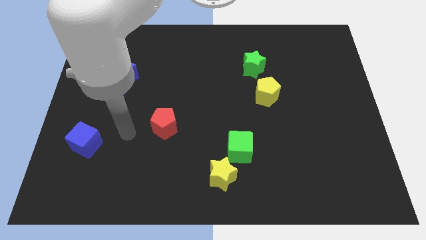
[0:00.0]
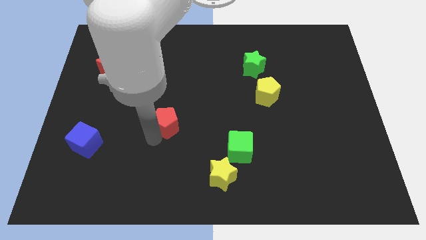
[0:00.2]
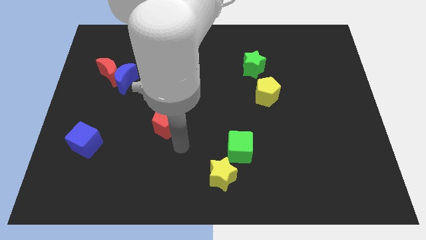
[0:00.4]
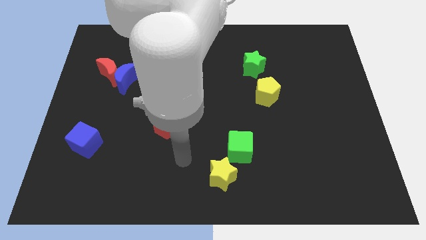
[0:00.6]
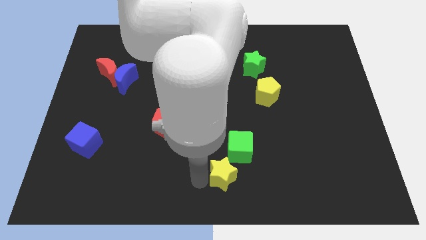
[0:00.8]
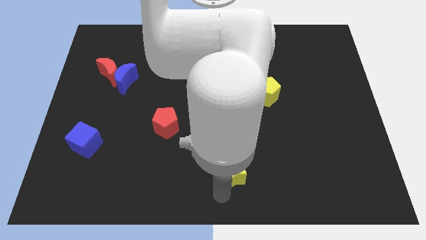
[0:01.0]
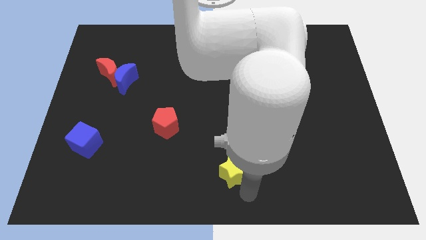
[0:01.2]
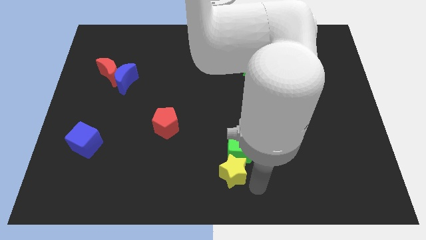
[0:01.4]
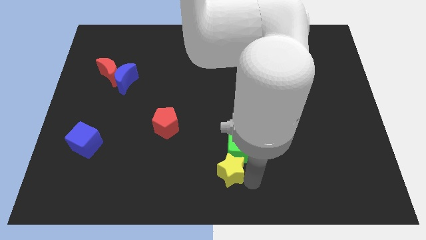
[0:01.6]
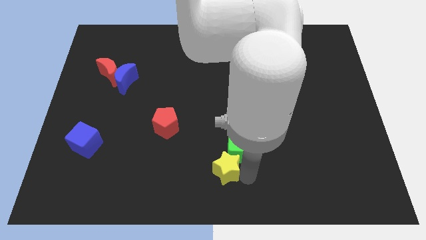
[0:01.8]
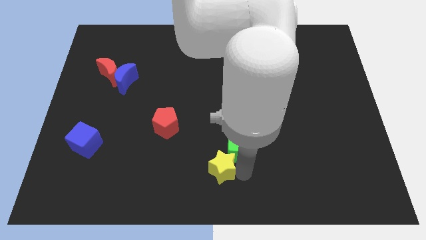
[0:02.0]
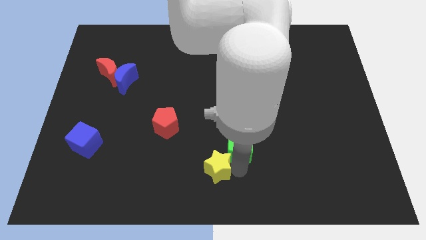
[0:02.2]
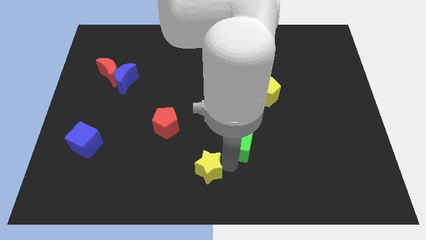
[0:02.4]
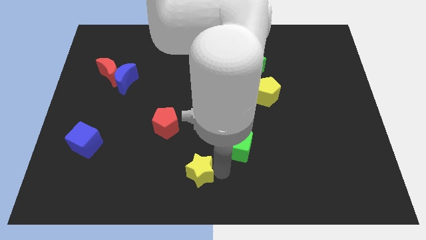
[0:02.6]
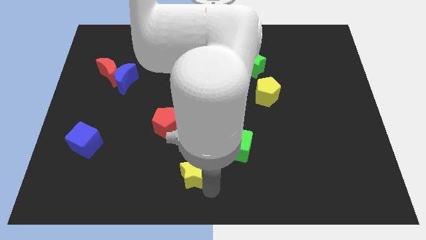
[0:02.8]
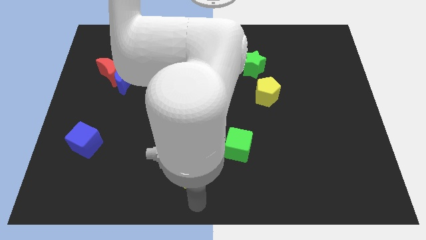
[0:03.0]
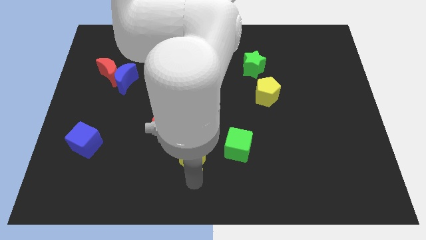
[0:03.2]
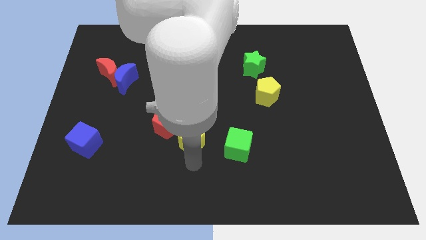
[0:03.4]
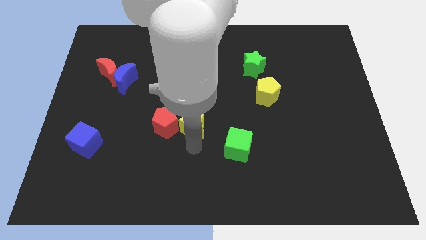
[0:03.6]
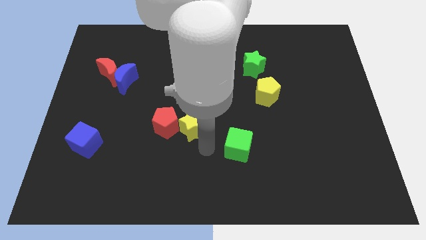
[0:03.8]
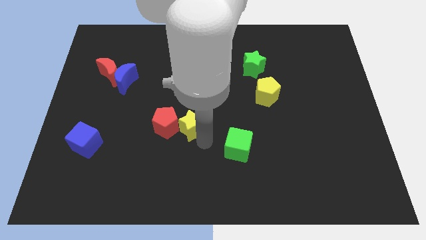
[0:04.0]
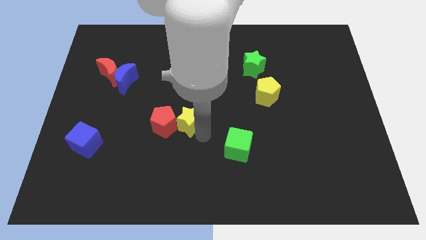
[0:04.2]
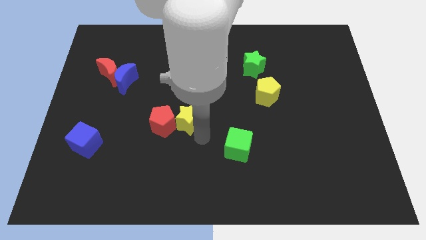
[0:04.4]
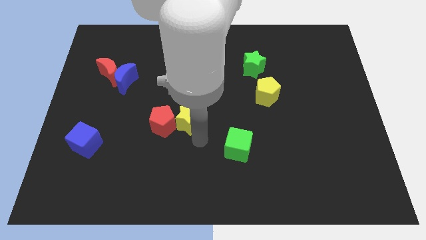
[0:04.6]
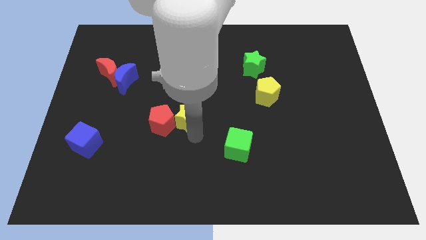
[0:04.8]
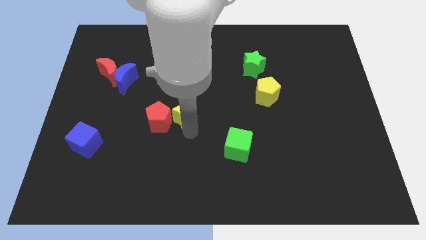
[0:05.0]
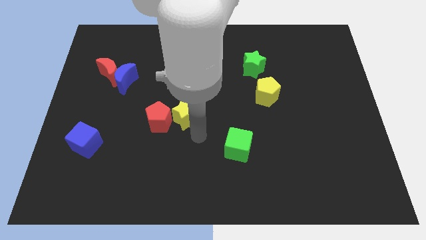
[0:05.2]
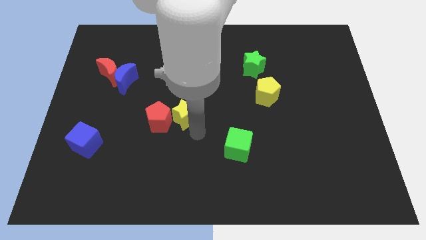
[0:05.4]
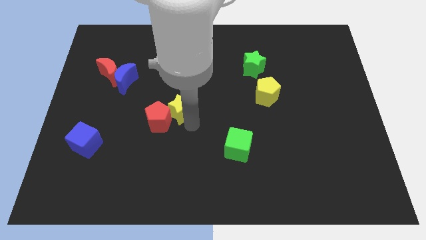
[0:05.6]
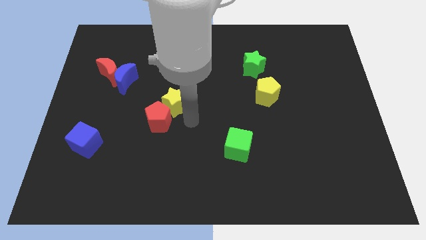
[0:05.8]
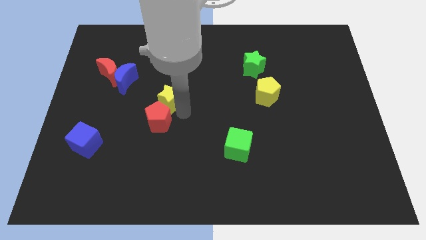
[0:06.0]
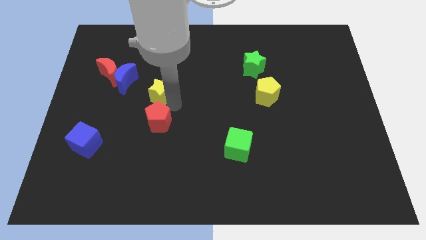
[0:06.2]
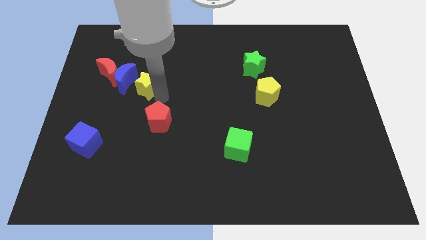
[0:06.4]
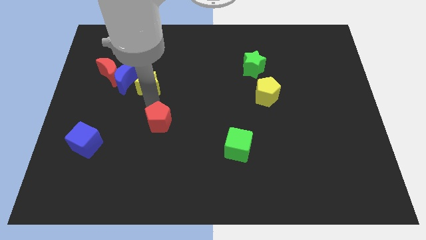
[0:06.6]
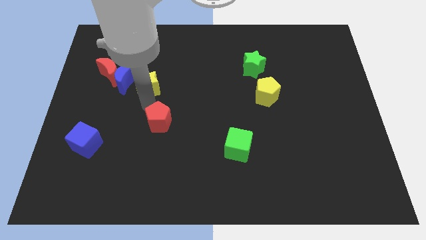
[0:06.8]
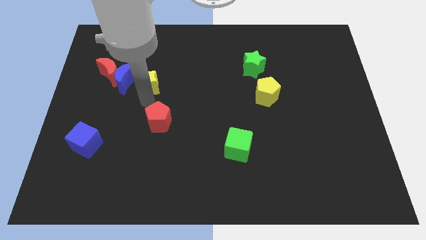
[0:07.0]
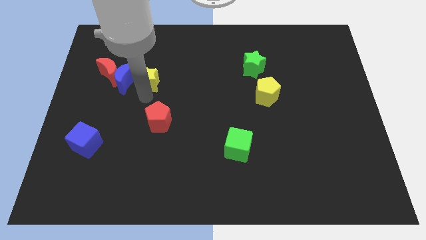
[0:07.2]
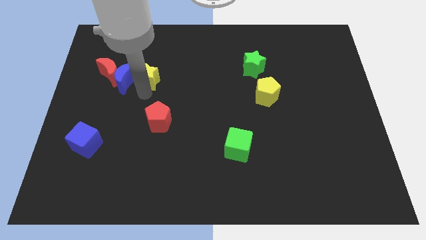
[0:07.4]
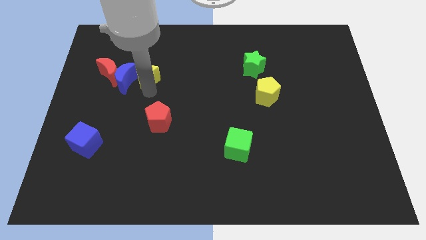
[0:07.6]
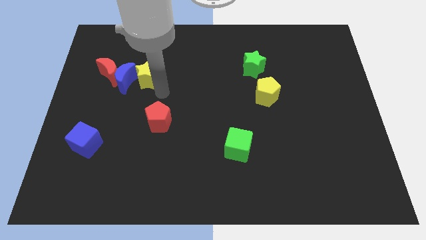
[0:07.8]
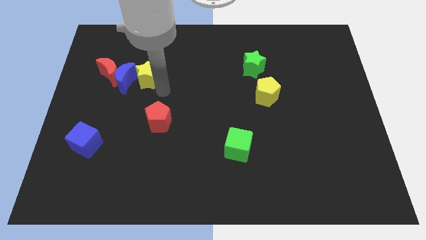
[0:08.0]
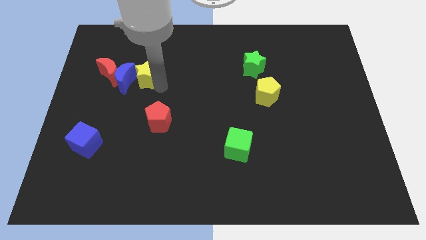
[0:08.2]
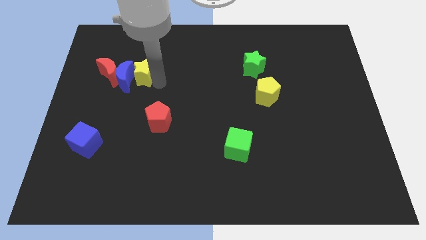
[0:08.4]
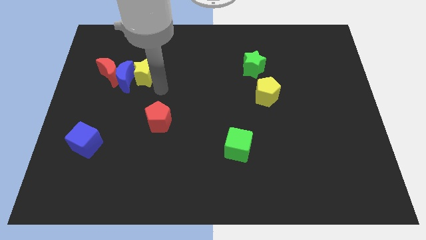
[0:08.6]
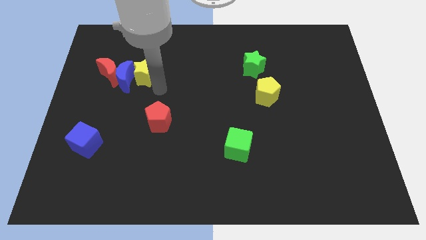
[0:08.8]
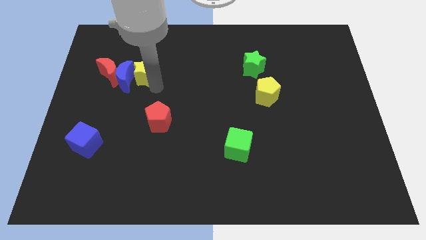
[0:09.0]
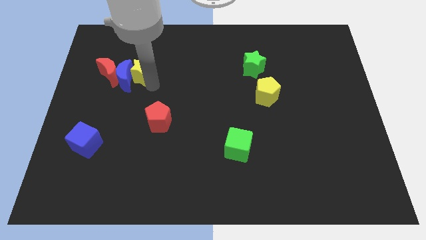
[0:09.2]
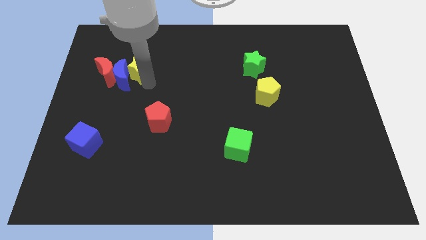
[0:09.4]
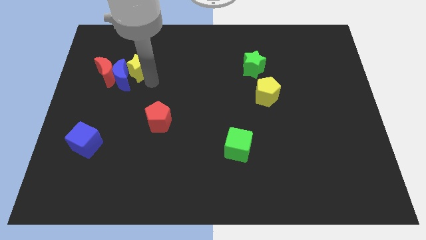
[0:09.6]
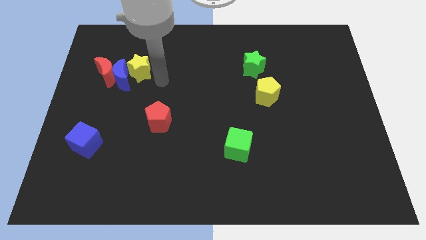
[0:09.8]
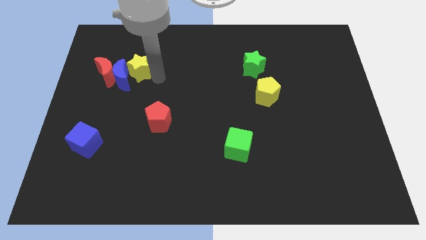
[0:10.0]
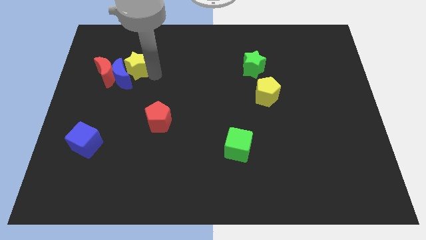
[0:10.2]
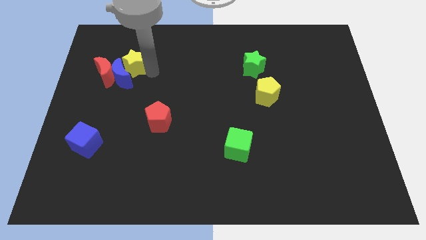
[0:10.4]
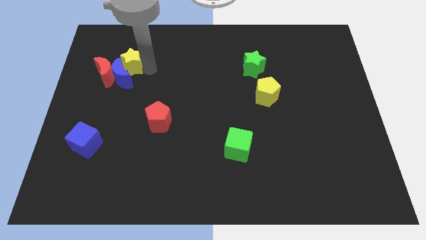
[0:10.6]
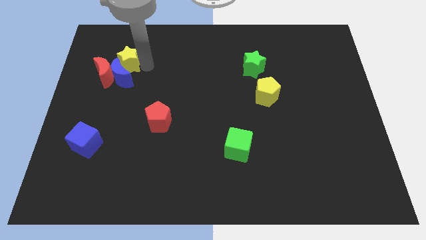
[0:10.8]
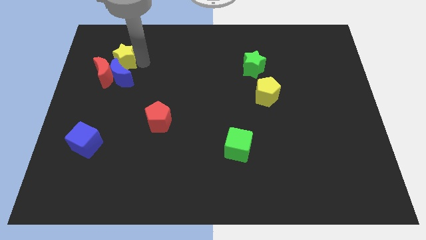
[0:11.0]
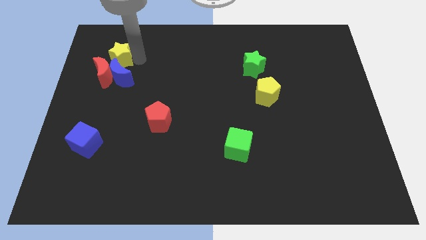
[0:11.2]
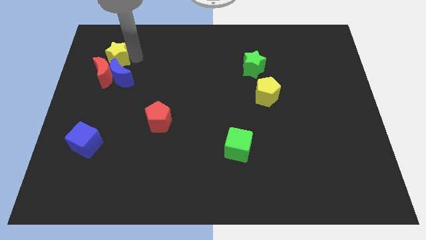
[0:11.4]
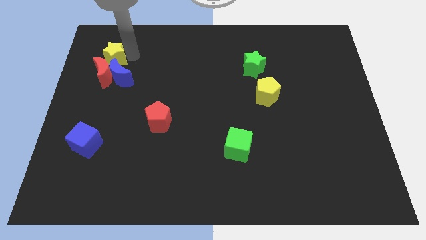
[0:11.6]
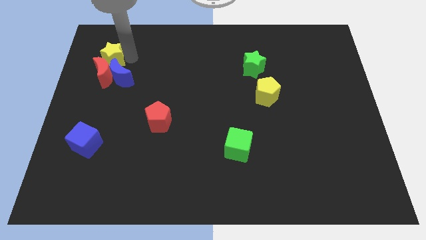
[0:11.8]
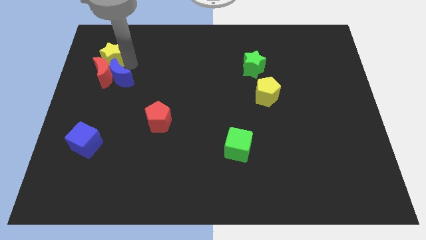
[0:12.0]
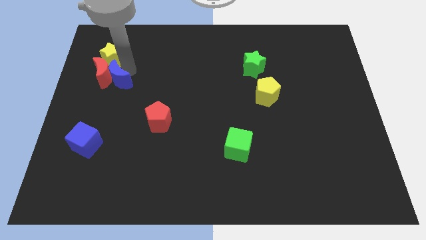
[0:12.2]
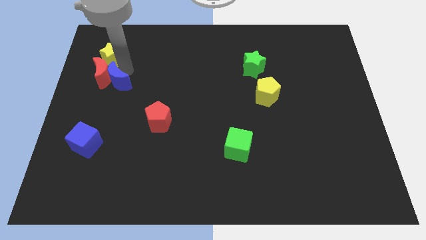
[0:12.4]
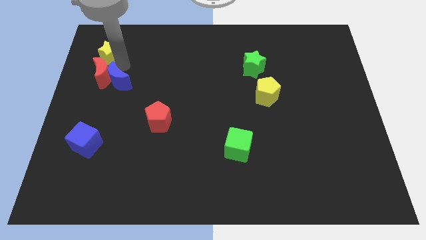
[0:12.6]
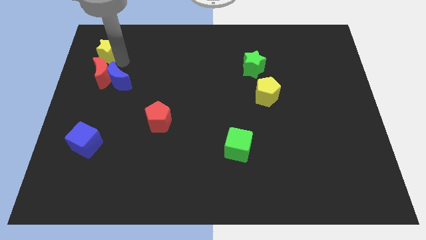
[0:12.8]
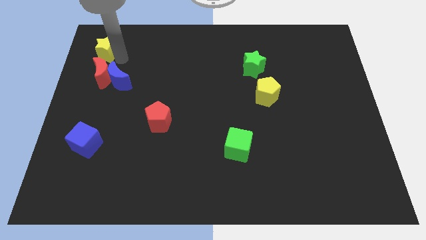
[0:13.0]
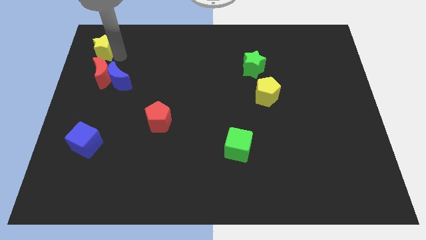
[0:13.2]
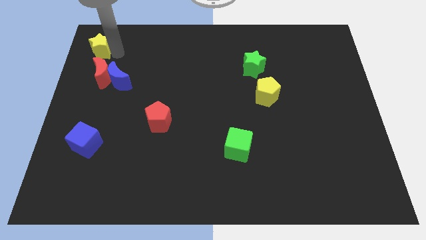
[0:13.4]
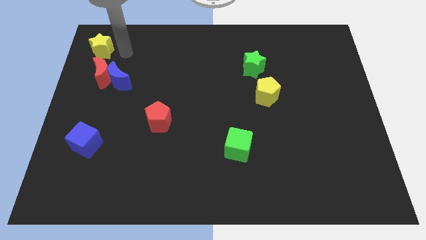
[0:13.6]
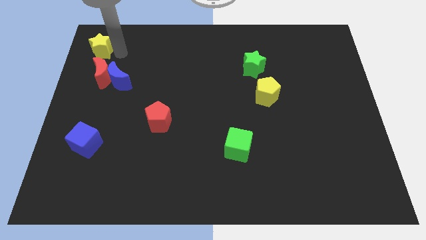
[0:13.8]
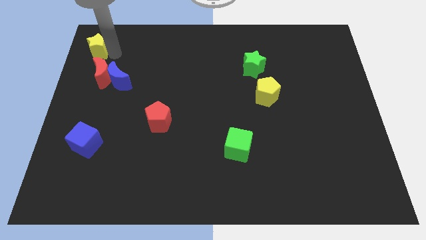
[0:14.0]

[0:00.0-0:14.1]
push the yellow star to the top left of the board
